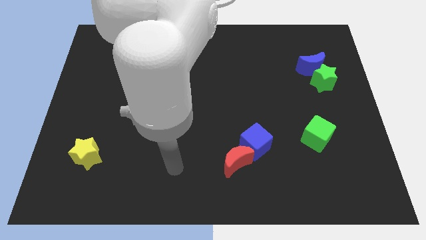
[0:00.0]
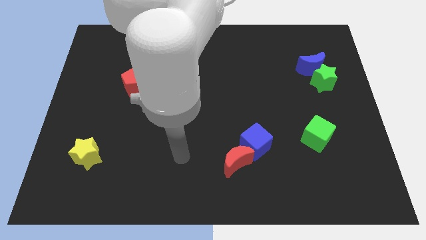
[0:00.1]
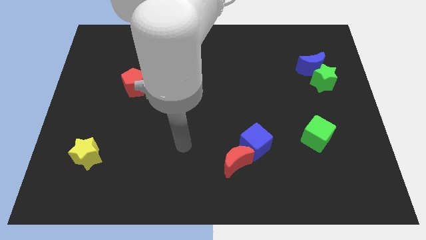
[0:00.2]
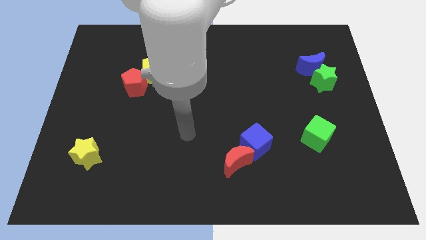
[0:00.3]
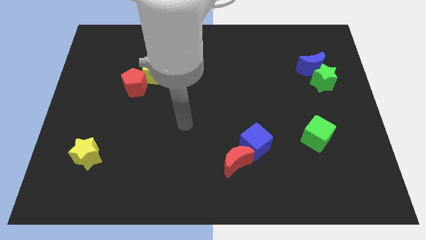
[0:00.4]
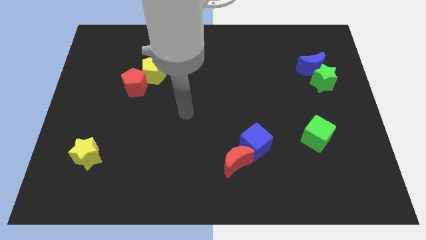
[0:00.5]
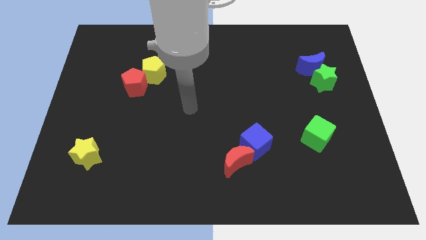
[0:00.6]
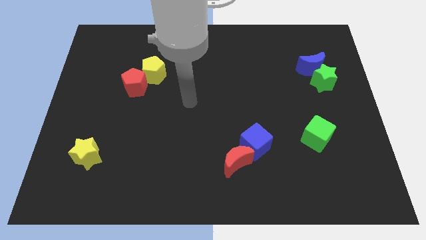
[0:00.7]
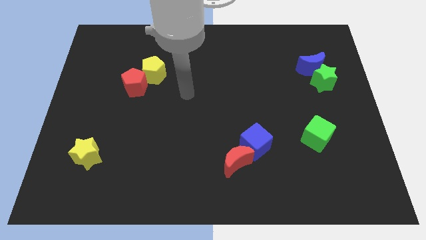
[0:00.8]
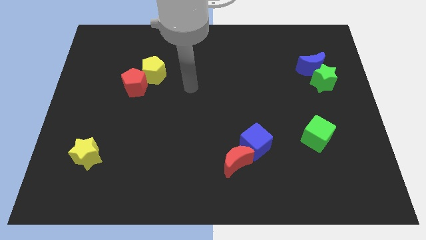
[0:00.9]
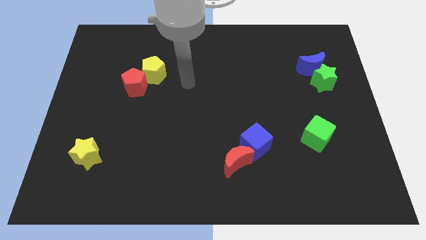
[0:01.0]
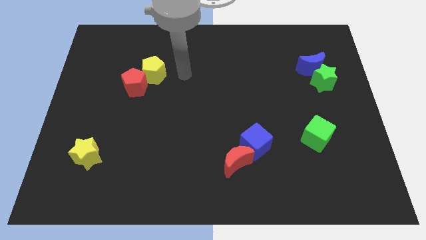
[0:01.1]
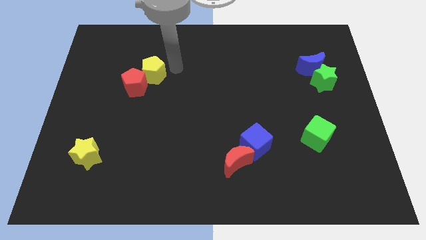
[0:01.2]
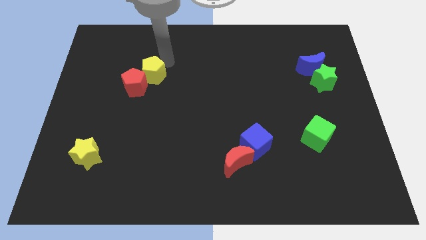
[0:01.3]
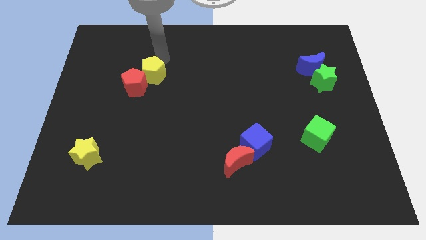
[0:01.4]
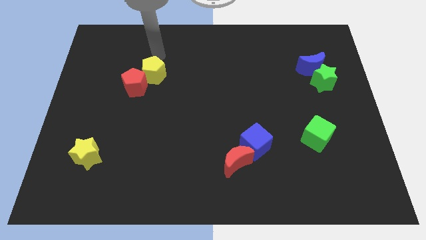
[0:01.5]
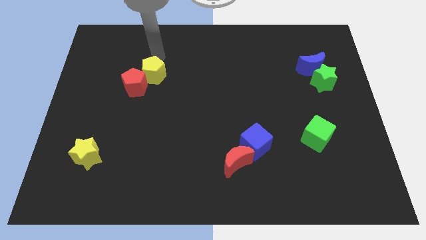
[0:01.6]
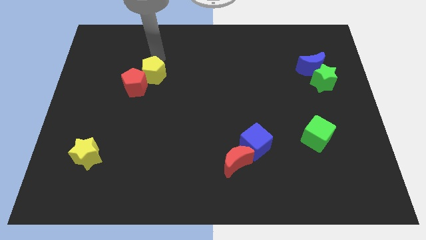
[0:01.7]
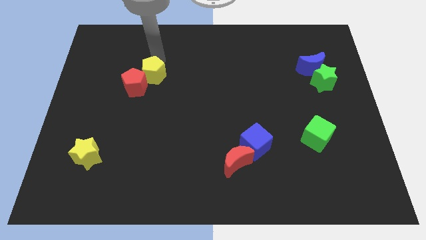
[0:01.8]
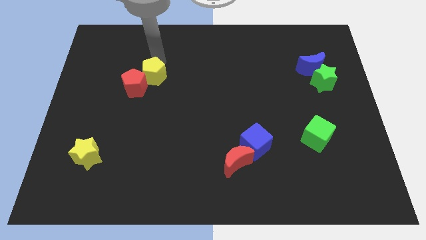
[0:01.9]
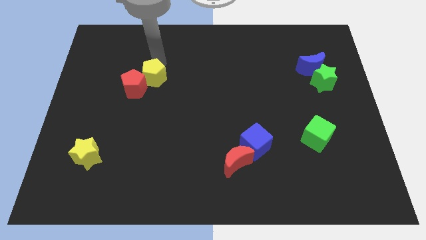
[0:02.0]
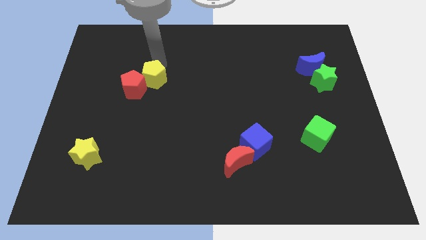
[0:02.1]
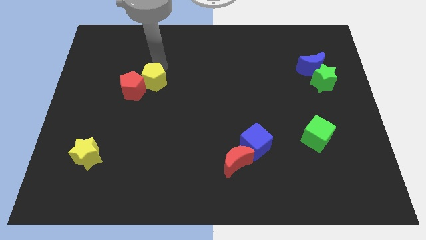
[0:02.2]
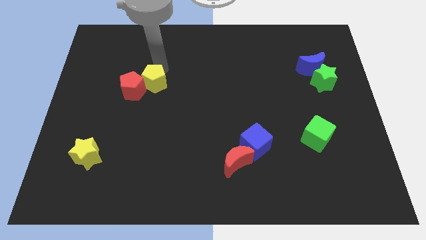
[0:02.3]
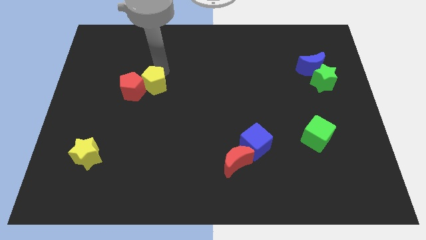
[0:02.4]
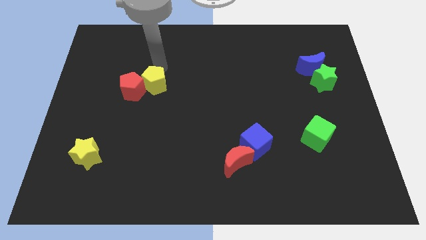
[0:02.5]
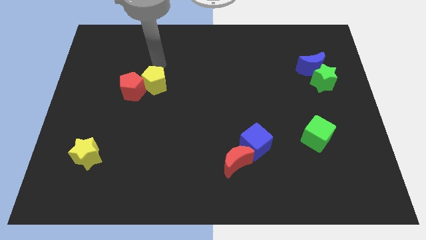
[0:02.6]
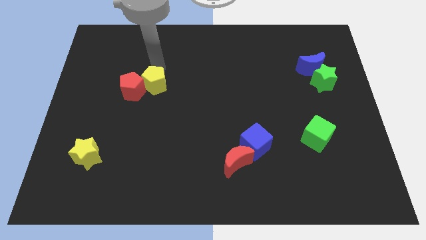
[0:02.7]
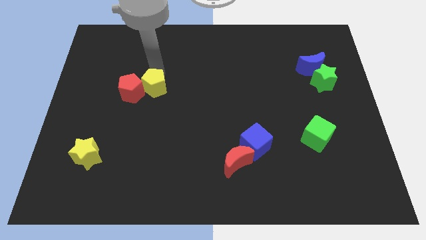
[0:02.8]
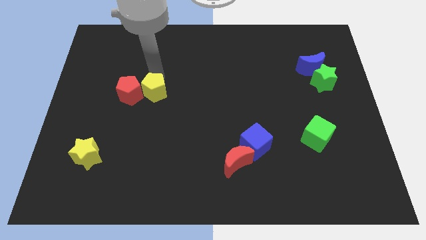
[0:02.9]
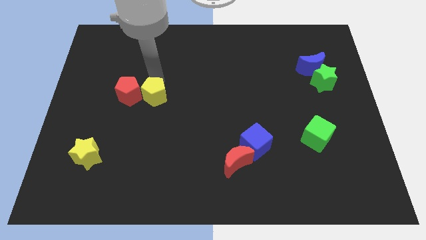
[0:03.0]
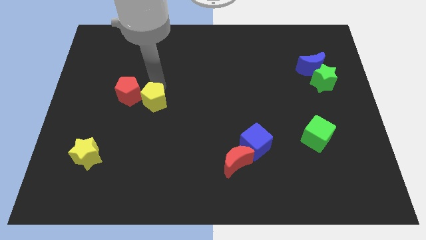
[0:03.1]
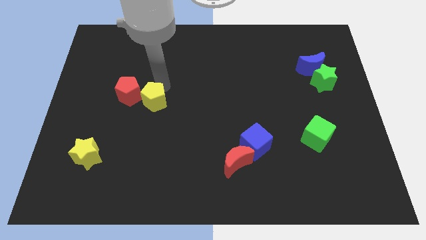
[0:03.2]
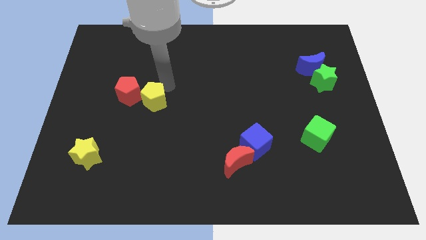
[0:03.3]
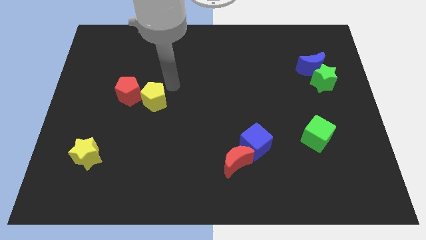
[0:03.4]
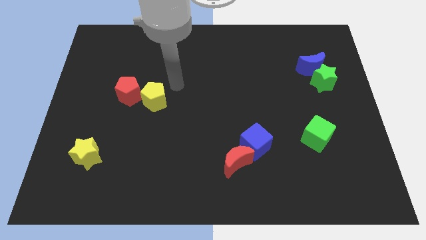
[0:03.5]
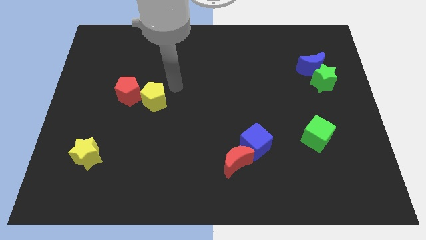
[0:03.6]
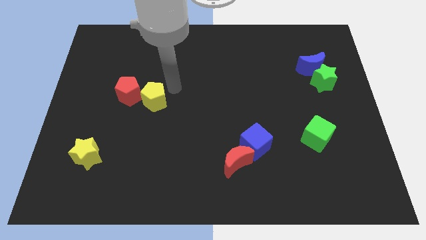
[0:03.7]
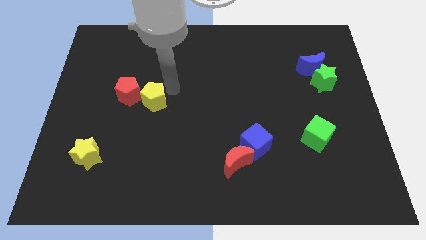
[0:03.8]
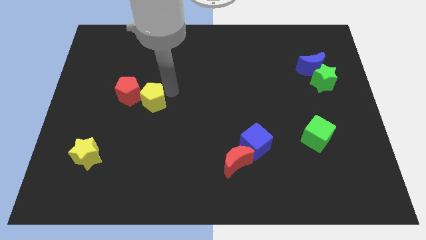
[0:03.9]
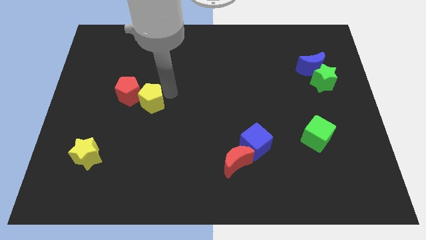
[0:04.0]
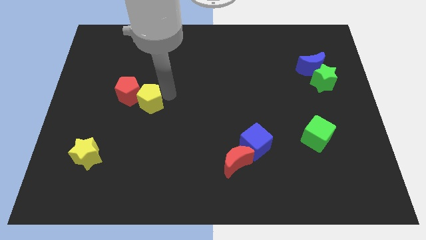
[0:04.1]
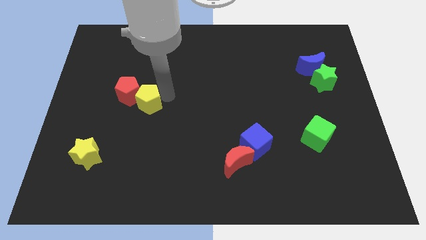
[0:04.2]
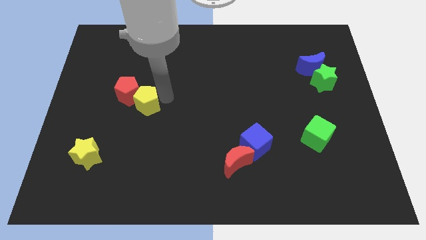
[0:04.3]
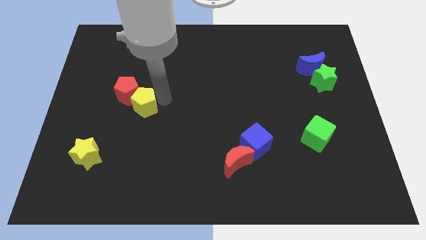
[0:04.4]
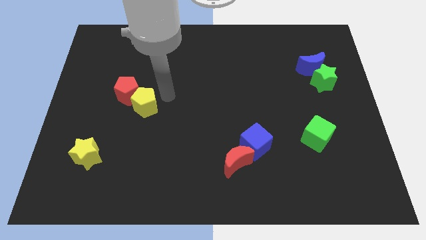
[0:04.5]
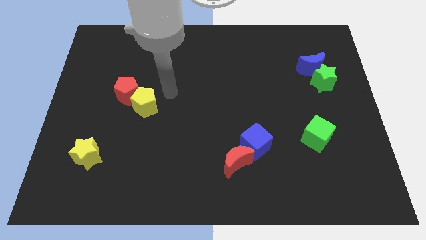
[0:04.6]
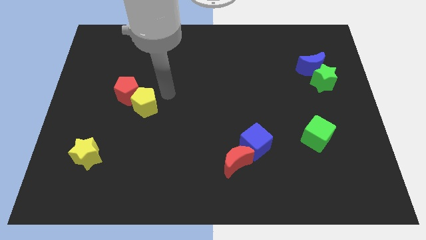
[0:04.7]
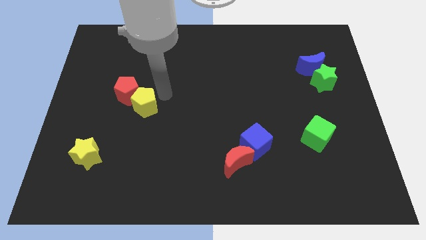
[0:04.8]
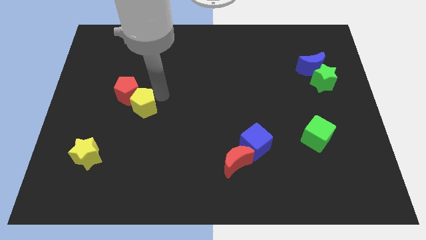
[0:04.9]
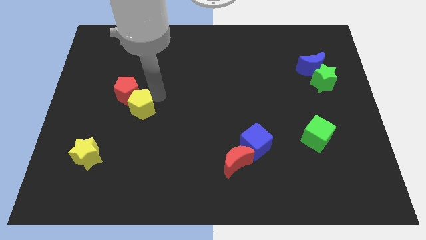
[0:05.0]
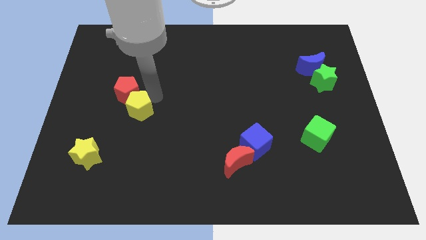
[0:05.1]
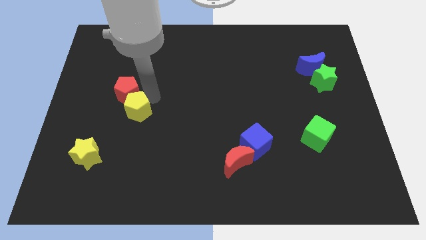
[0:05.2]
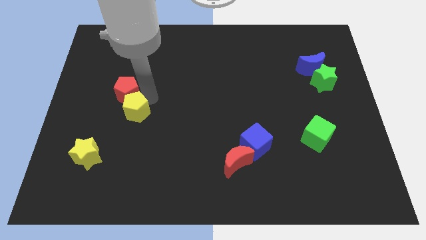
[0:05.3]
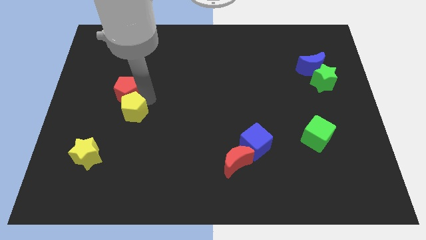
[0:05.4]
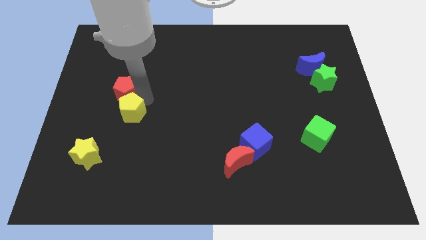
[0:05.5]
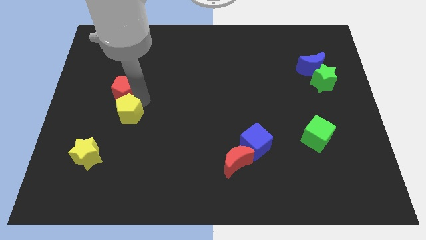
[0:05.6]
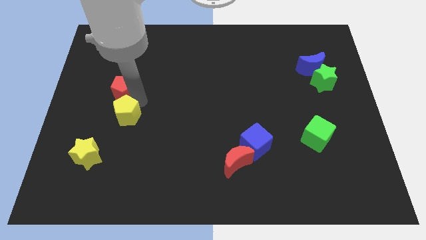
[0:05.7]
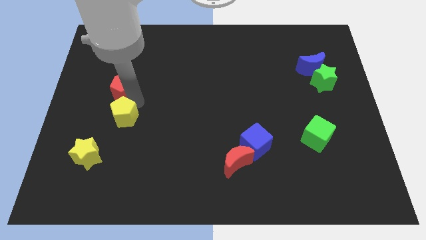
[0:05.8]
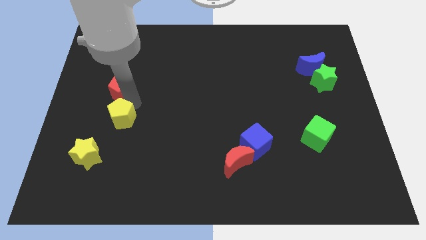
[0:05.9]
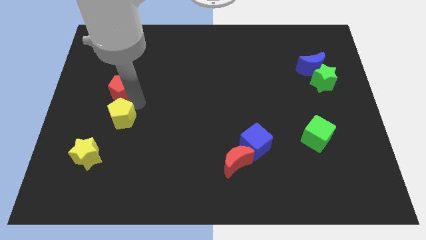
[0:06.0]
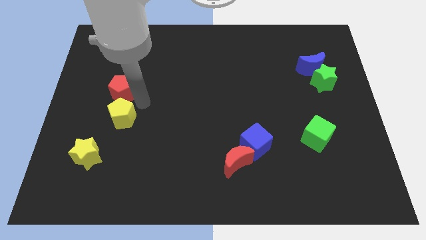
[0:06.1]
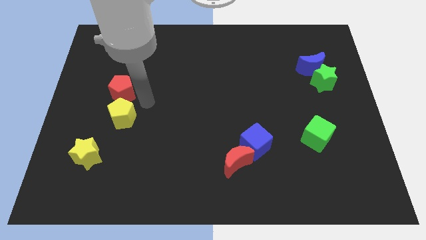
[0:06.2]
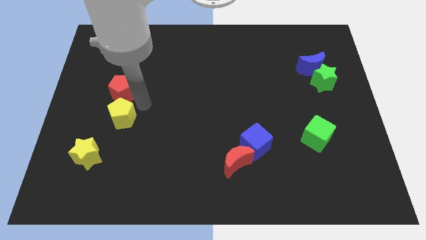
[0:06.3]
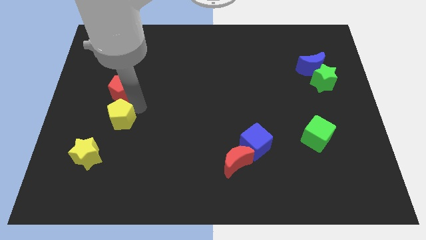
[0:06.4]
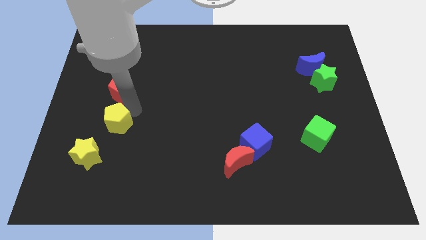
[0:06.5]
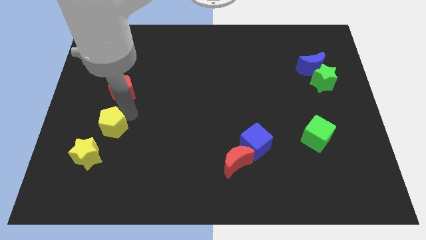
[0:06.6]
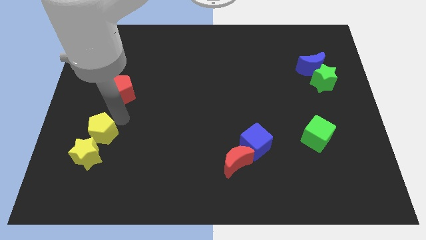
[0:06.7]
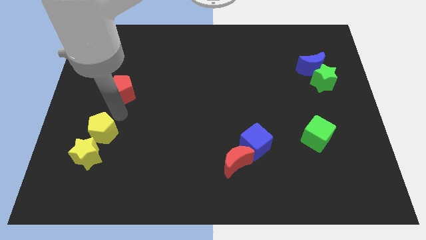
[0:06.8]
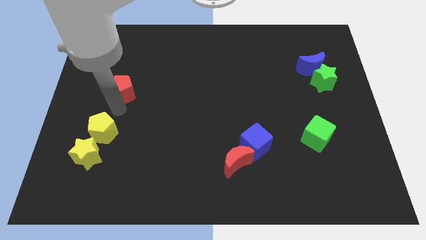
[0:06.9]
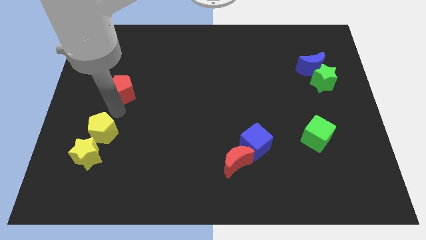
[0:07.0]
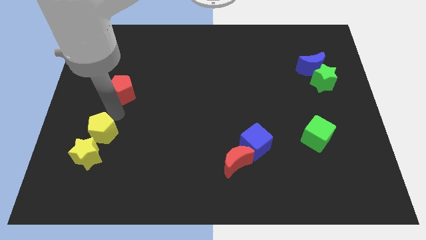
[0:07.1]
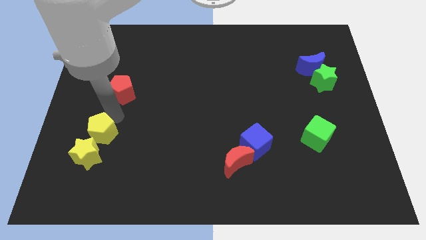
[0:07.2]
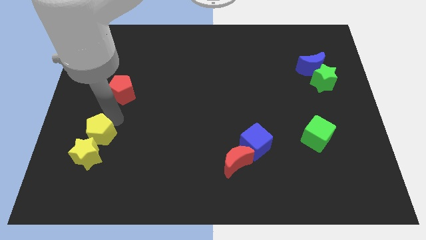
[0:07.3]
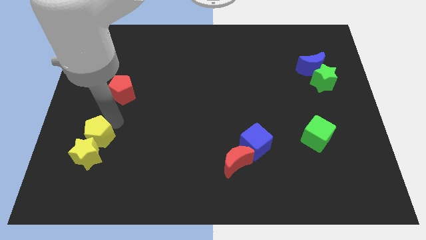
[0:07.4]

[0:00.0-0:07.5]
slide the yellow pentagon close to the yellow star

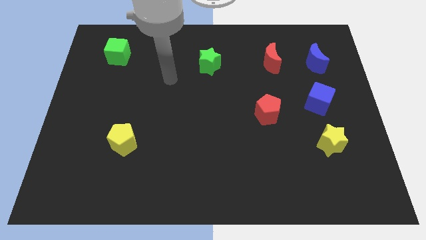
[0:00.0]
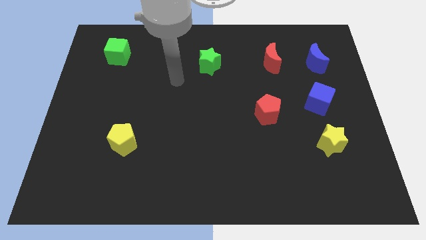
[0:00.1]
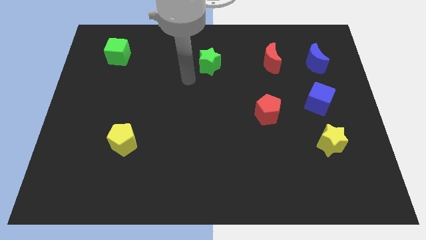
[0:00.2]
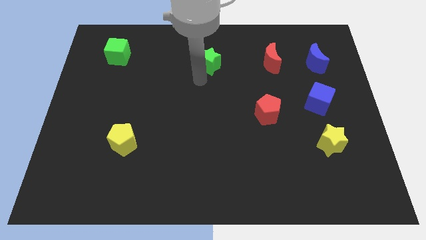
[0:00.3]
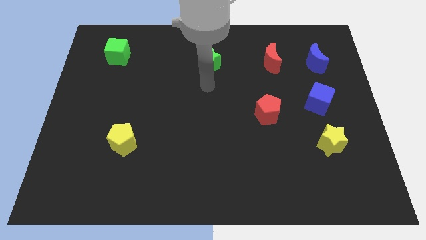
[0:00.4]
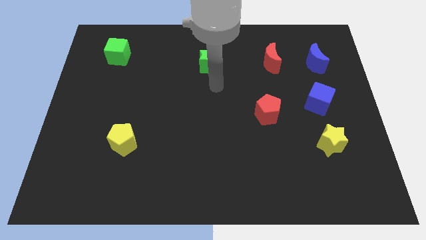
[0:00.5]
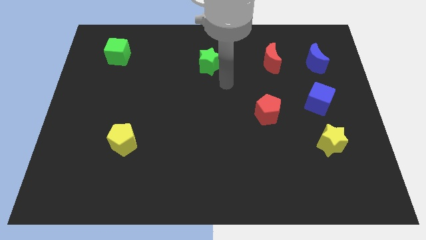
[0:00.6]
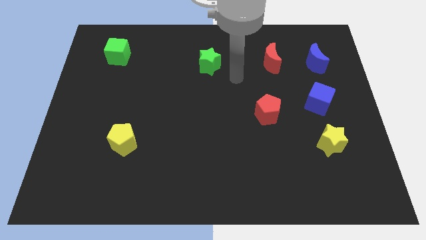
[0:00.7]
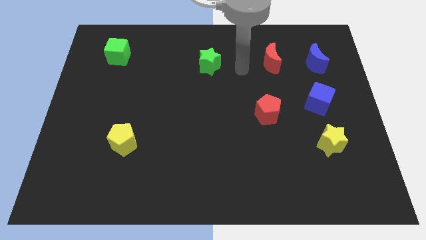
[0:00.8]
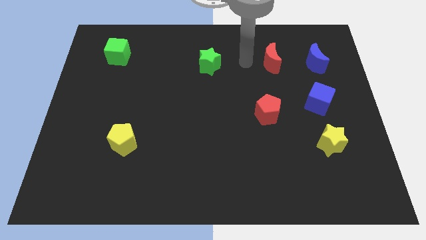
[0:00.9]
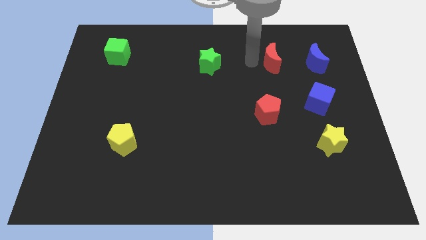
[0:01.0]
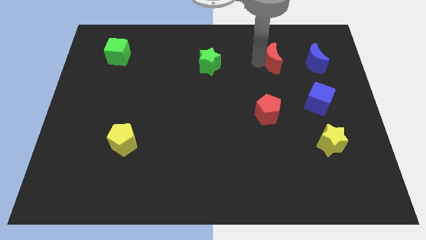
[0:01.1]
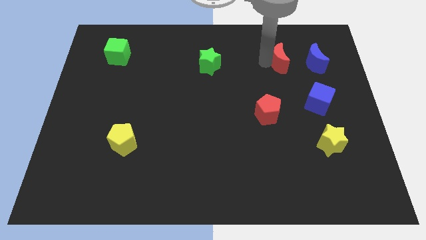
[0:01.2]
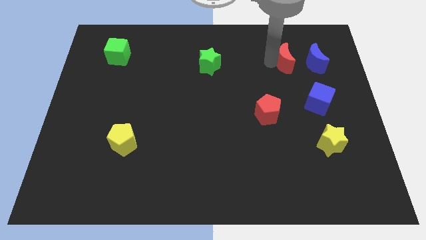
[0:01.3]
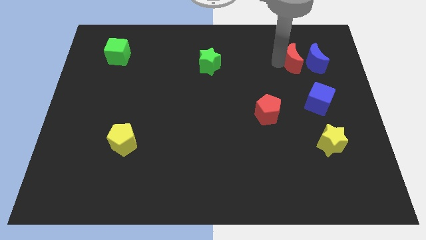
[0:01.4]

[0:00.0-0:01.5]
put the red moon to the blue moon
